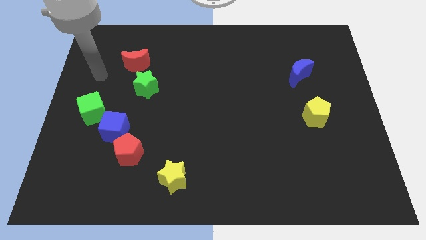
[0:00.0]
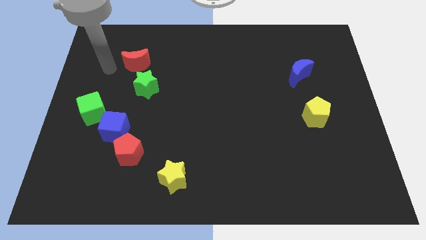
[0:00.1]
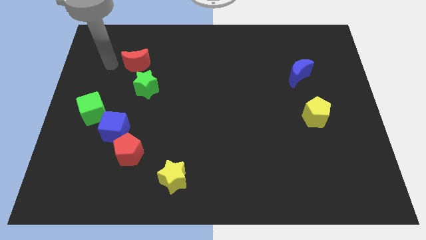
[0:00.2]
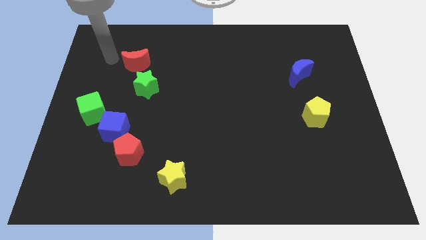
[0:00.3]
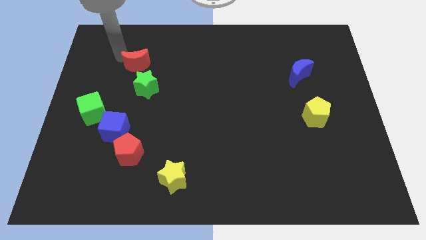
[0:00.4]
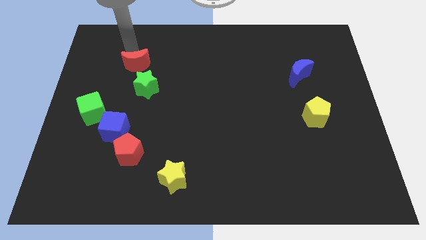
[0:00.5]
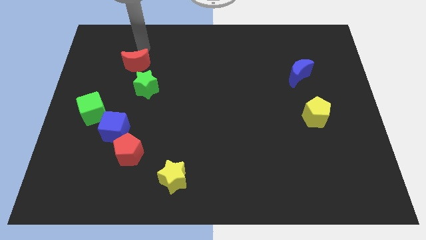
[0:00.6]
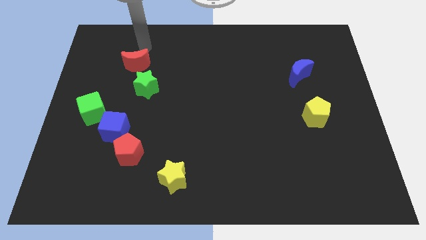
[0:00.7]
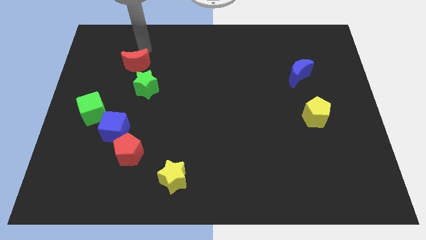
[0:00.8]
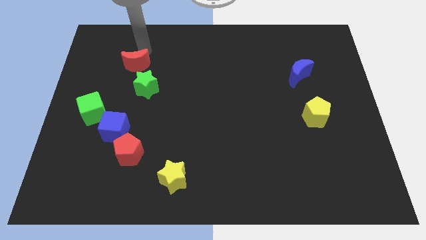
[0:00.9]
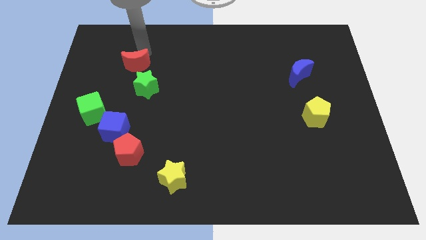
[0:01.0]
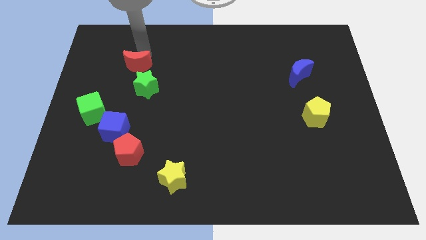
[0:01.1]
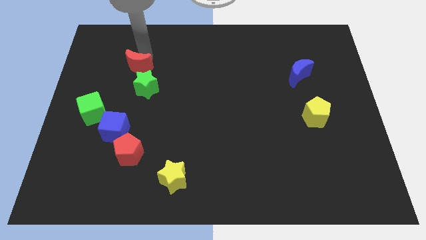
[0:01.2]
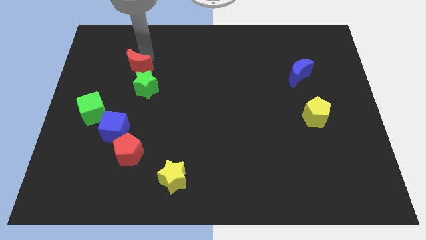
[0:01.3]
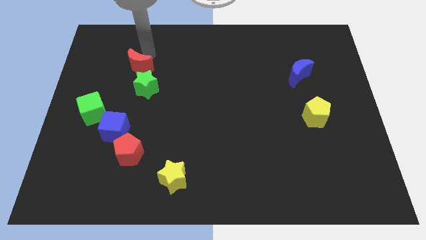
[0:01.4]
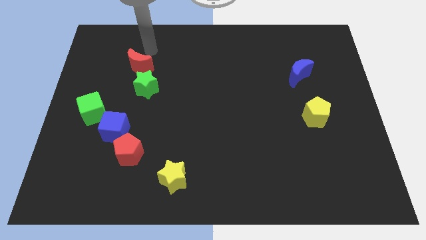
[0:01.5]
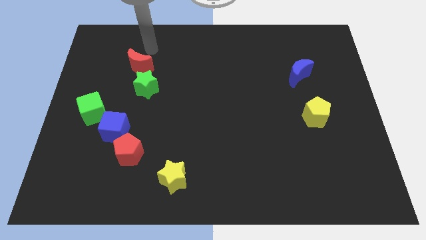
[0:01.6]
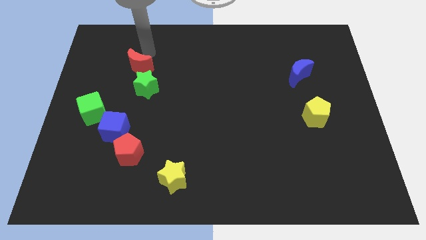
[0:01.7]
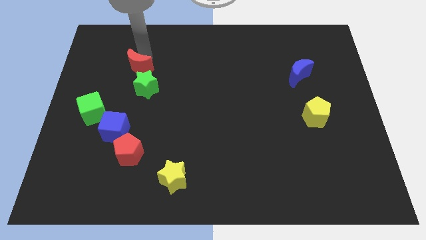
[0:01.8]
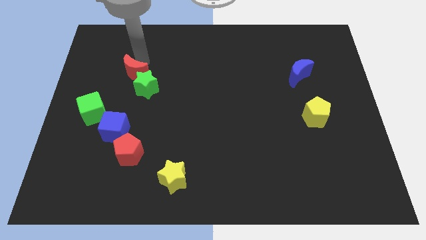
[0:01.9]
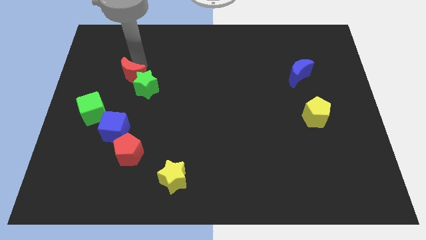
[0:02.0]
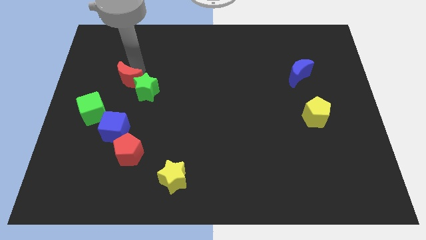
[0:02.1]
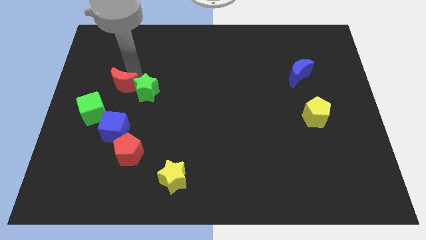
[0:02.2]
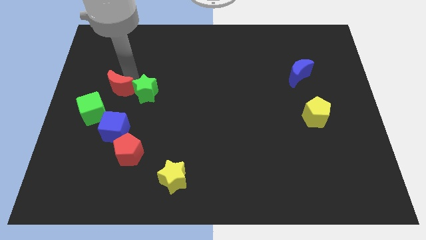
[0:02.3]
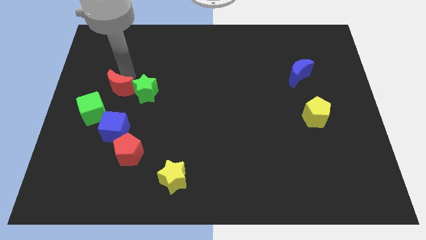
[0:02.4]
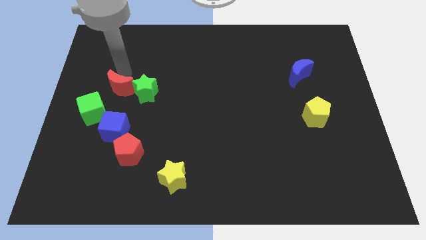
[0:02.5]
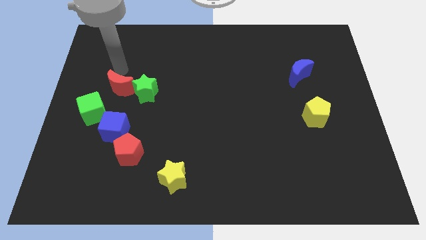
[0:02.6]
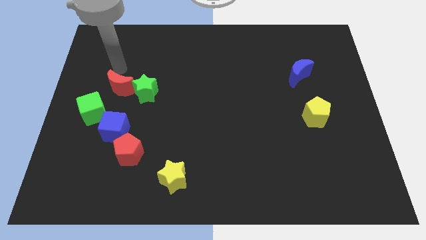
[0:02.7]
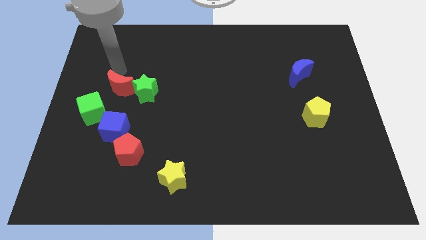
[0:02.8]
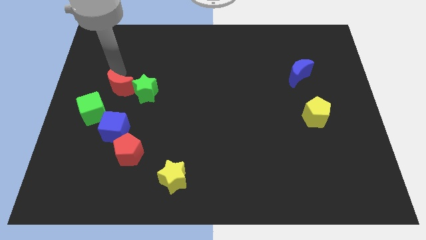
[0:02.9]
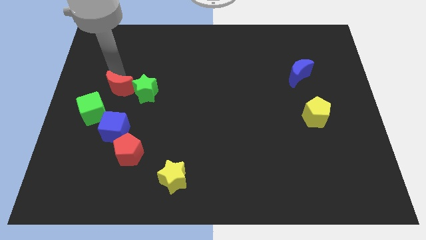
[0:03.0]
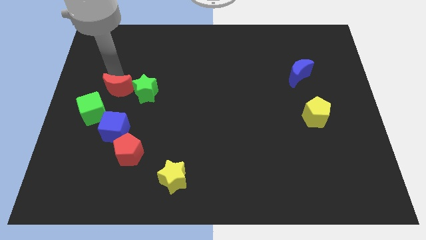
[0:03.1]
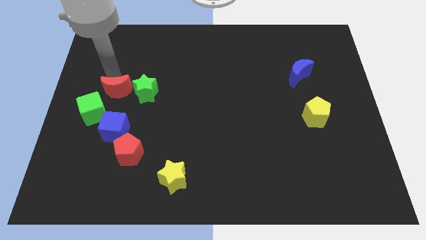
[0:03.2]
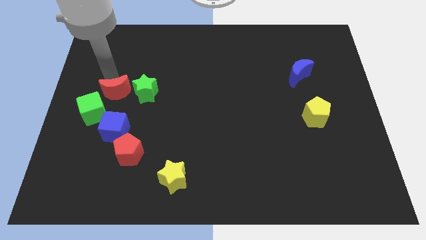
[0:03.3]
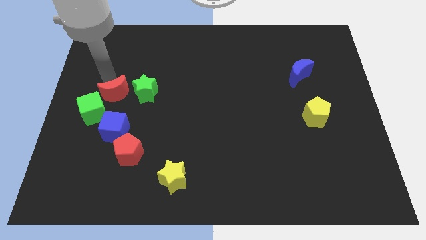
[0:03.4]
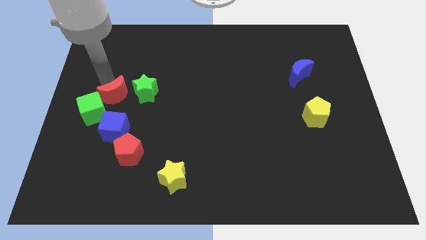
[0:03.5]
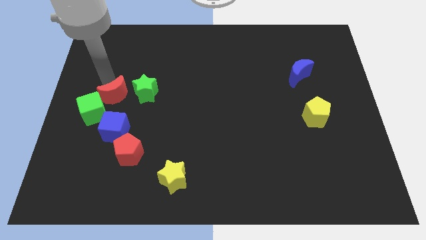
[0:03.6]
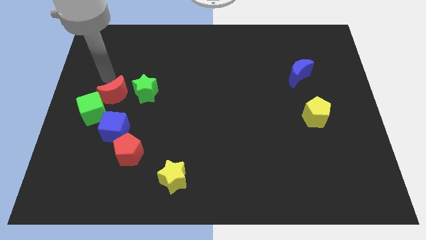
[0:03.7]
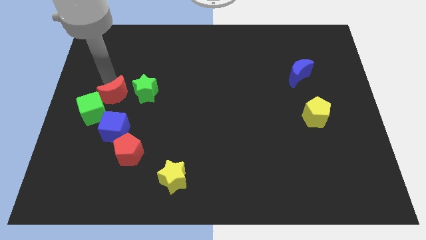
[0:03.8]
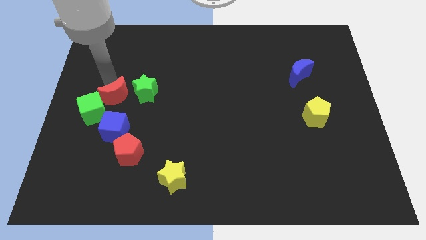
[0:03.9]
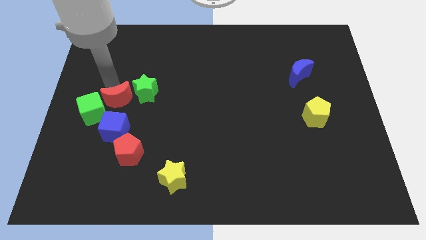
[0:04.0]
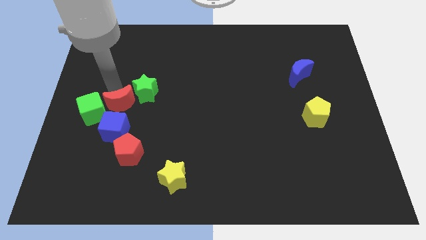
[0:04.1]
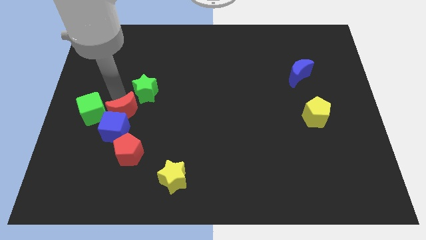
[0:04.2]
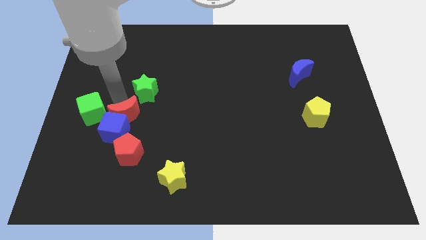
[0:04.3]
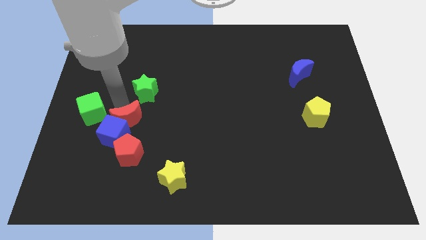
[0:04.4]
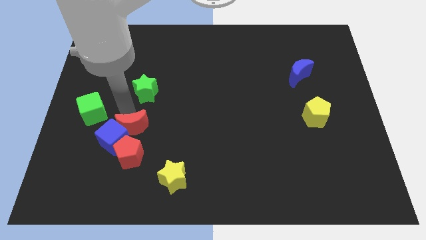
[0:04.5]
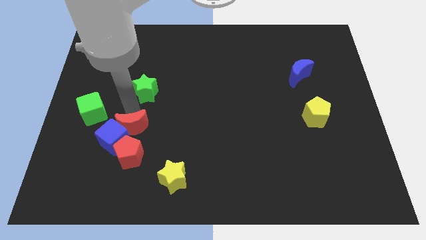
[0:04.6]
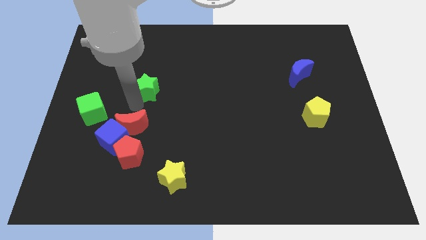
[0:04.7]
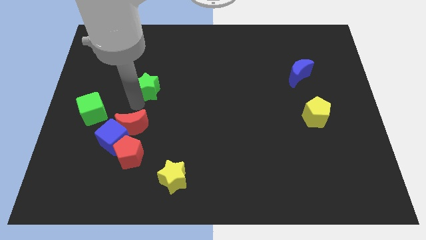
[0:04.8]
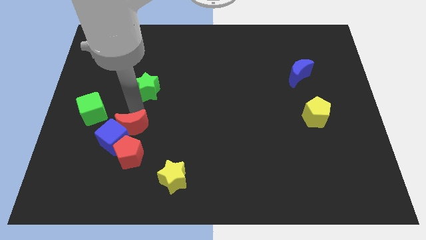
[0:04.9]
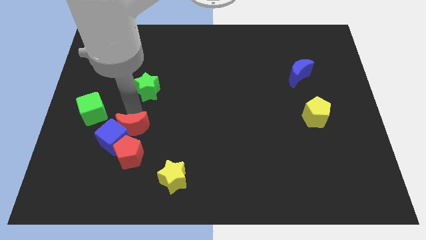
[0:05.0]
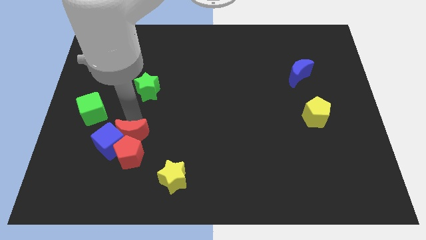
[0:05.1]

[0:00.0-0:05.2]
push the red moon next to the red pentagon

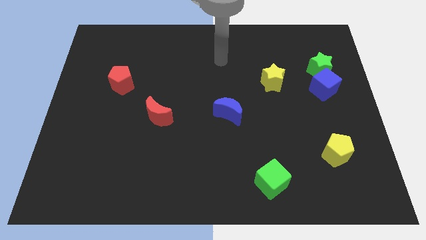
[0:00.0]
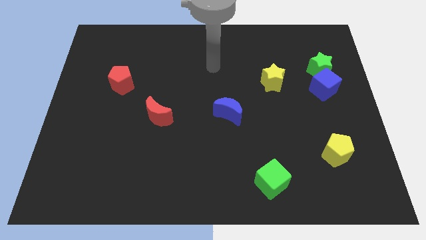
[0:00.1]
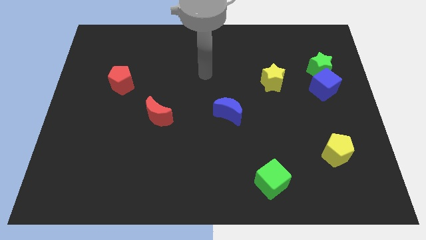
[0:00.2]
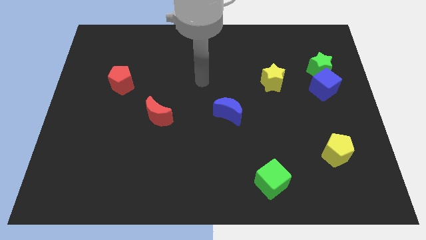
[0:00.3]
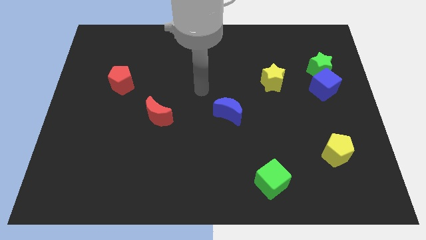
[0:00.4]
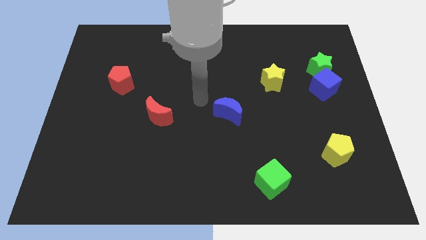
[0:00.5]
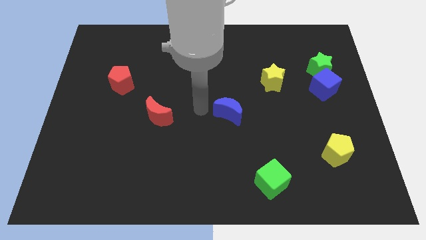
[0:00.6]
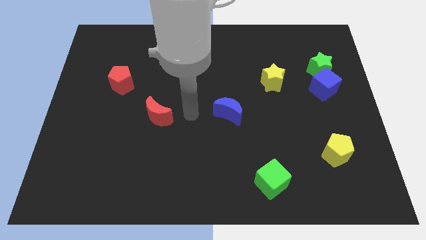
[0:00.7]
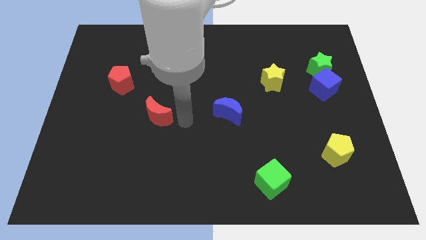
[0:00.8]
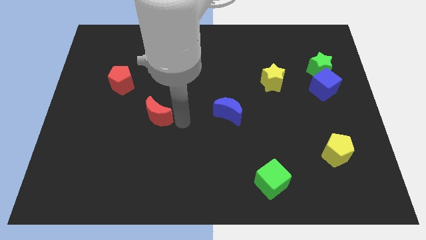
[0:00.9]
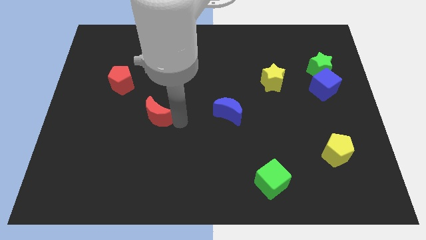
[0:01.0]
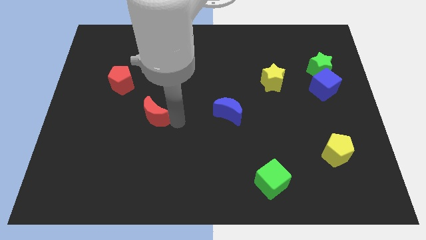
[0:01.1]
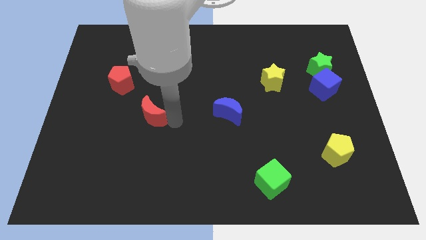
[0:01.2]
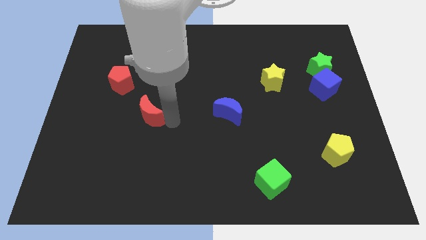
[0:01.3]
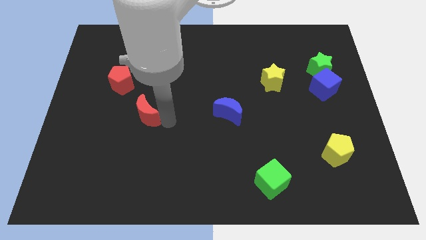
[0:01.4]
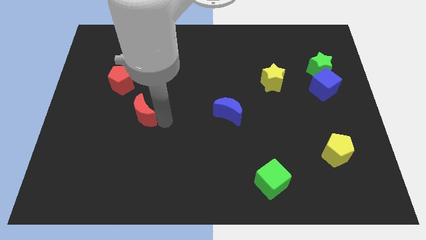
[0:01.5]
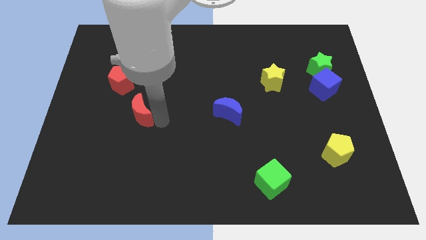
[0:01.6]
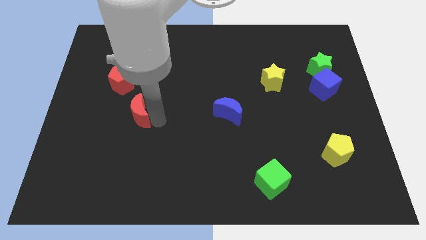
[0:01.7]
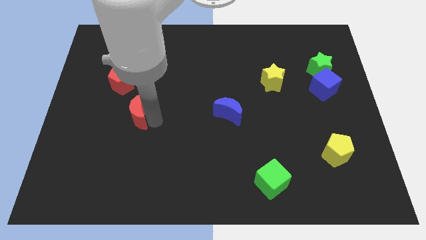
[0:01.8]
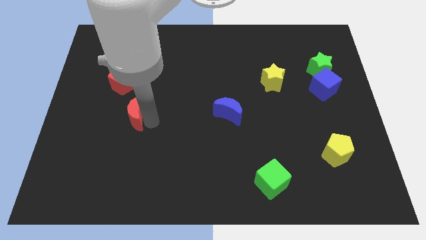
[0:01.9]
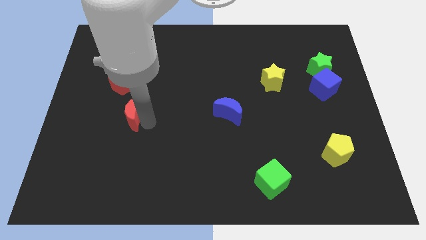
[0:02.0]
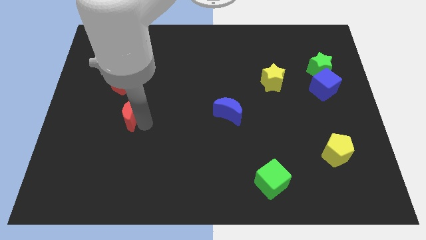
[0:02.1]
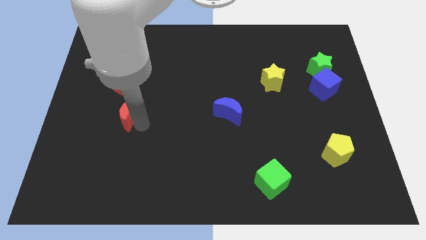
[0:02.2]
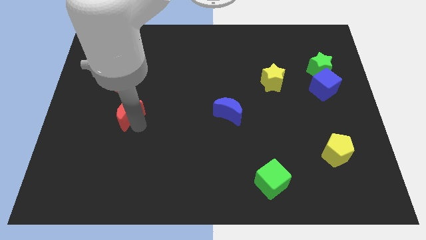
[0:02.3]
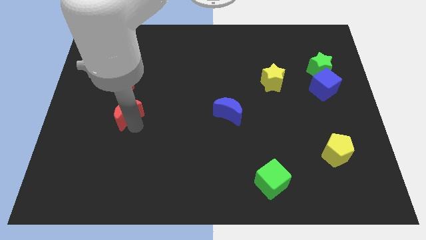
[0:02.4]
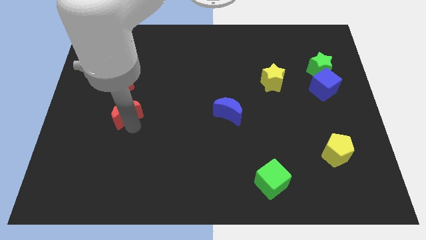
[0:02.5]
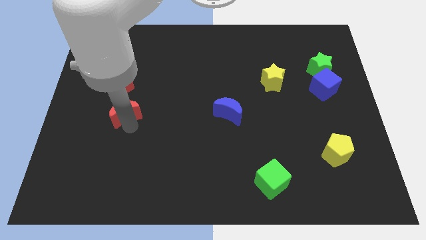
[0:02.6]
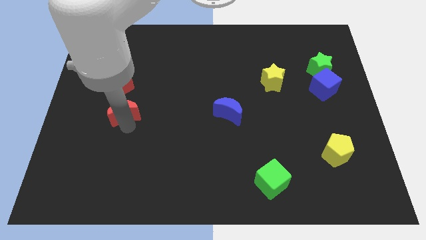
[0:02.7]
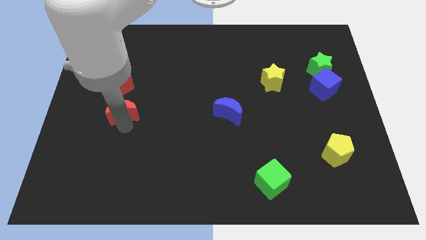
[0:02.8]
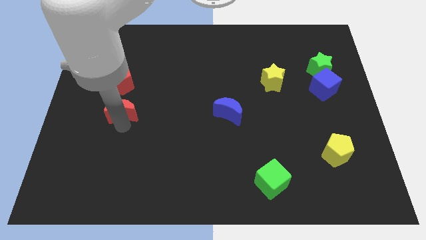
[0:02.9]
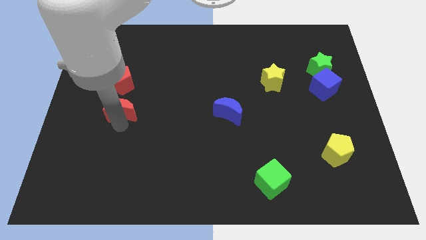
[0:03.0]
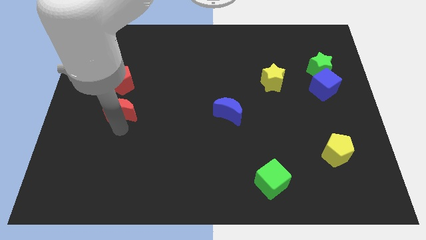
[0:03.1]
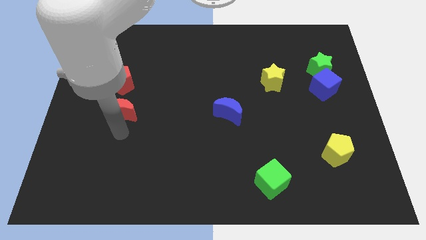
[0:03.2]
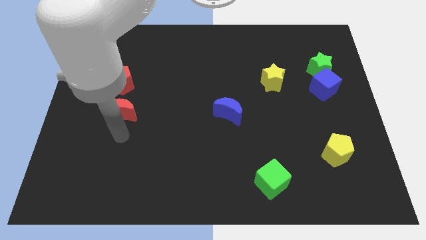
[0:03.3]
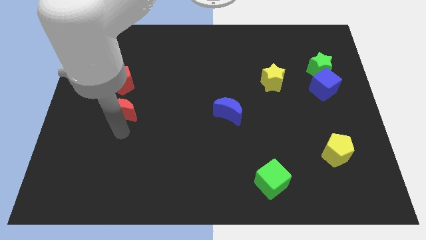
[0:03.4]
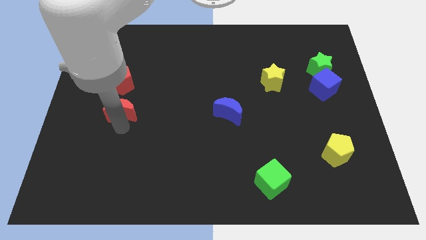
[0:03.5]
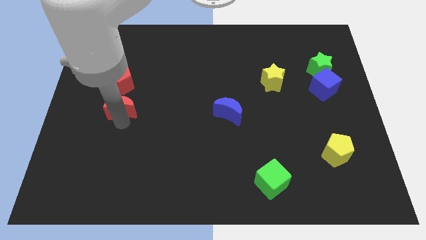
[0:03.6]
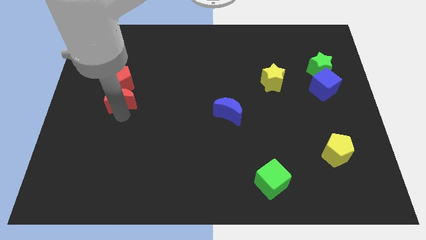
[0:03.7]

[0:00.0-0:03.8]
put the red moon close to the red pentagon
